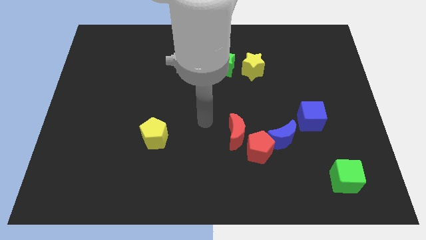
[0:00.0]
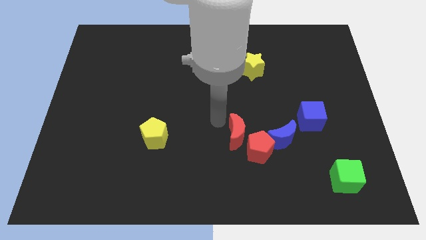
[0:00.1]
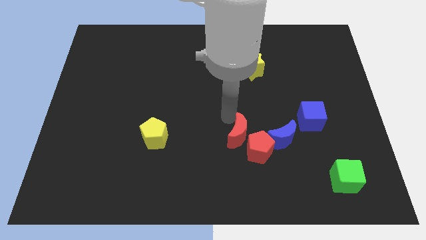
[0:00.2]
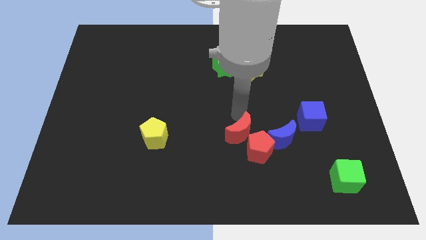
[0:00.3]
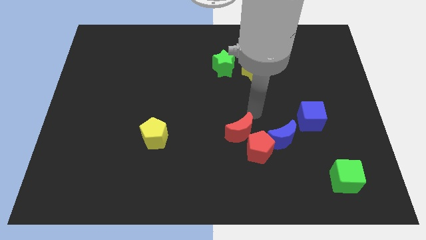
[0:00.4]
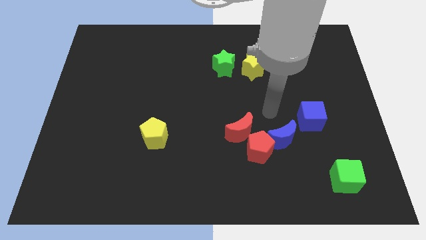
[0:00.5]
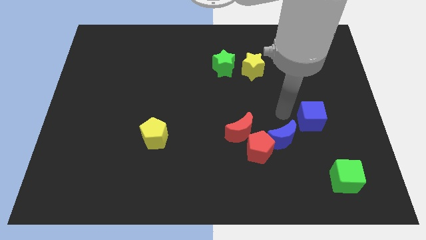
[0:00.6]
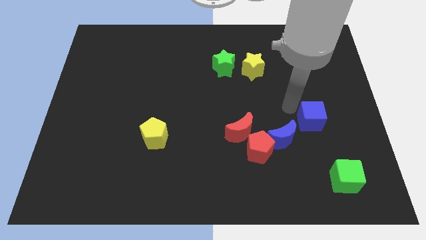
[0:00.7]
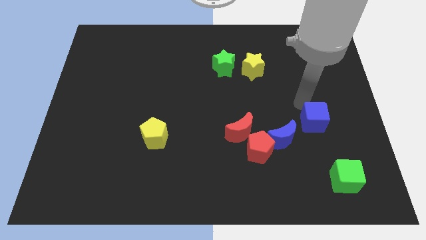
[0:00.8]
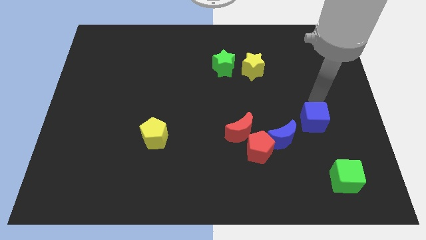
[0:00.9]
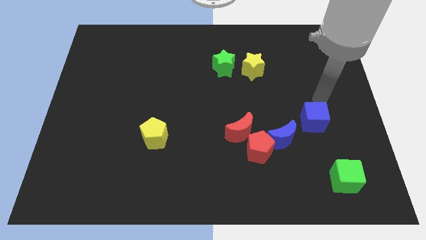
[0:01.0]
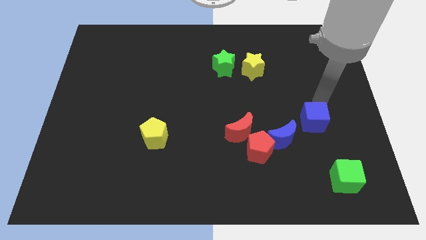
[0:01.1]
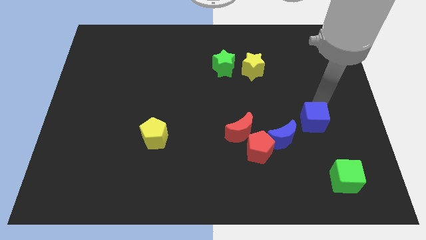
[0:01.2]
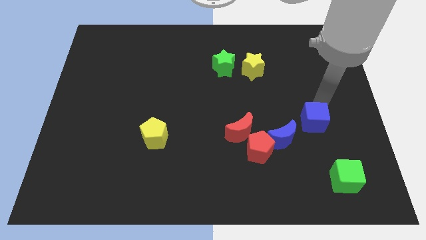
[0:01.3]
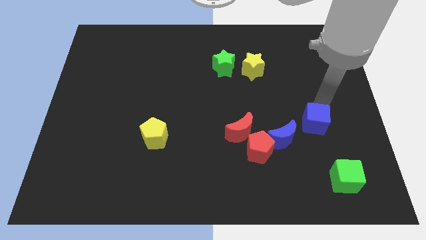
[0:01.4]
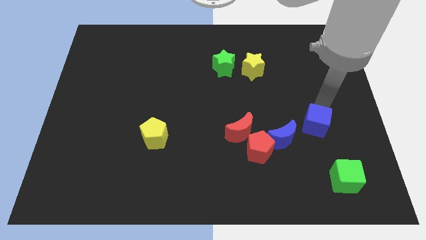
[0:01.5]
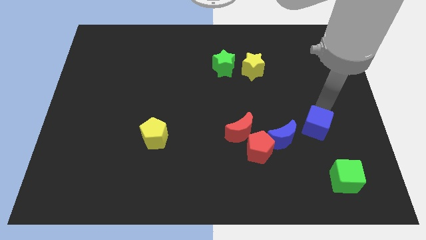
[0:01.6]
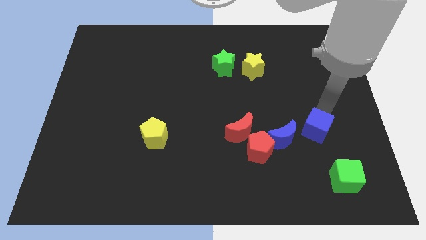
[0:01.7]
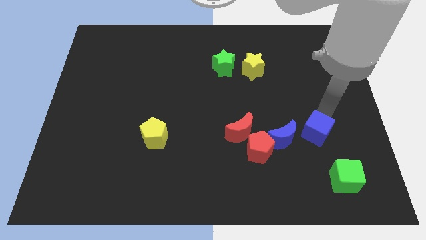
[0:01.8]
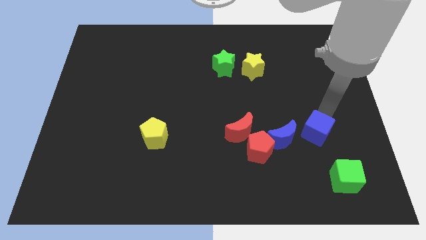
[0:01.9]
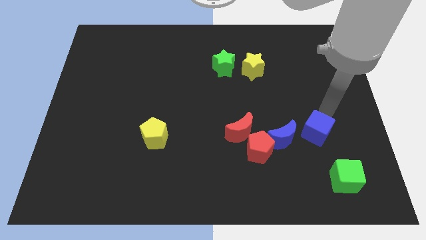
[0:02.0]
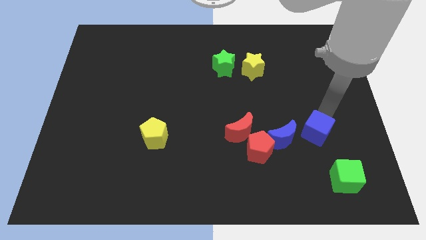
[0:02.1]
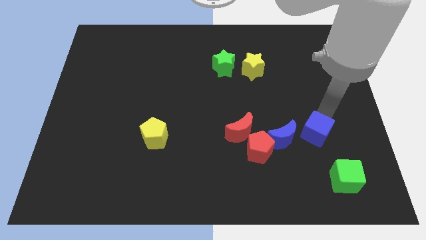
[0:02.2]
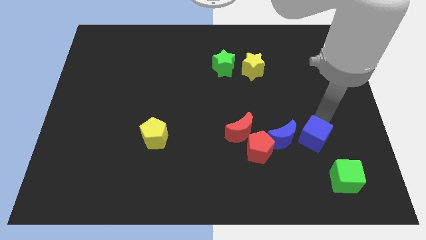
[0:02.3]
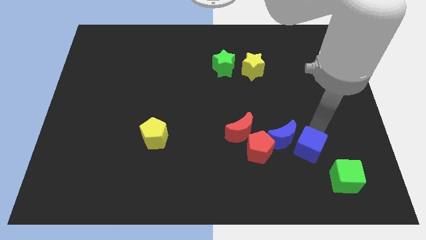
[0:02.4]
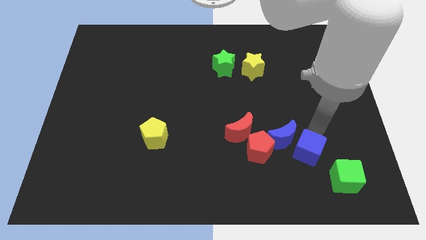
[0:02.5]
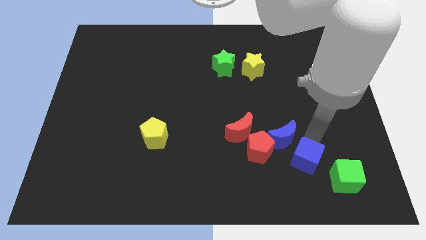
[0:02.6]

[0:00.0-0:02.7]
move the blue cube downwards and then to the left somewhat

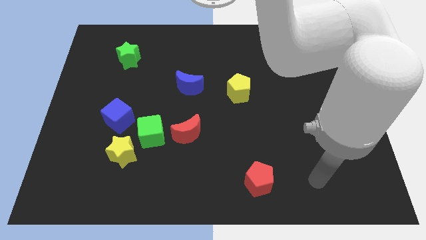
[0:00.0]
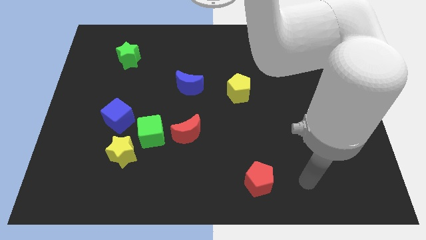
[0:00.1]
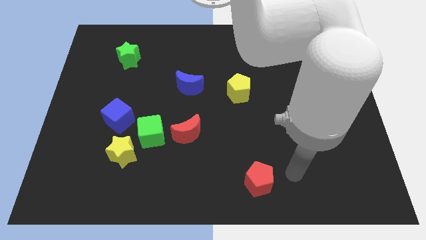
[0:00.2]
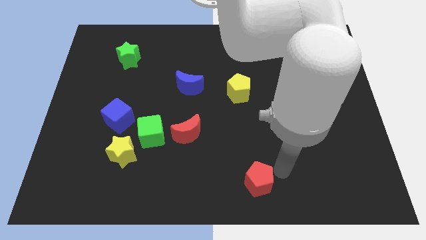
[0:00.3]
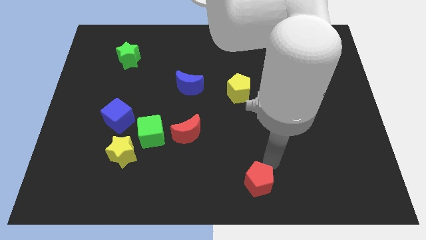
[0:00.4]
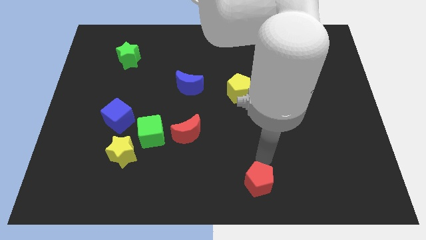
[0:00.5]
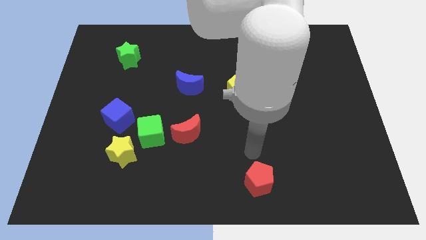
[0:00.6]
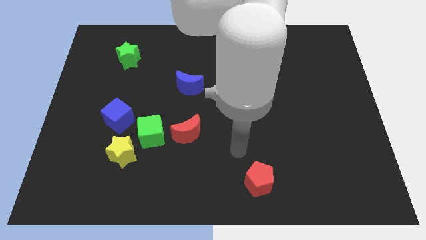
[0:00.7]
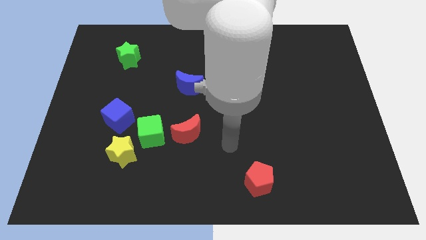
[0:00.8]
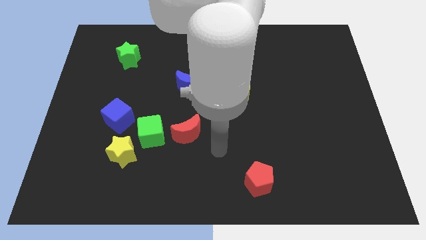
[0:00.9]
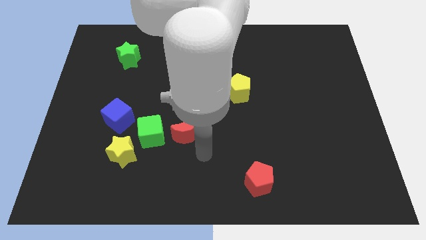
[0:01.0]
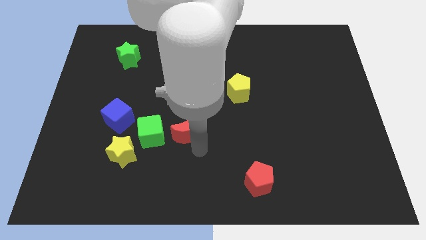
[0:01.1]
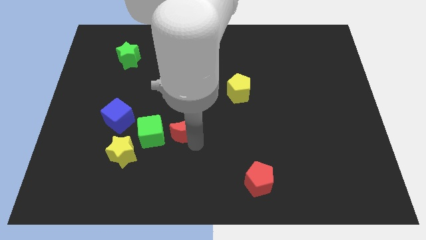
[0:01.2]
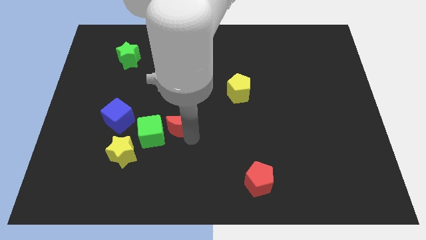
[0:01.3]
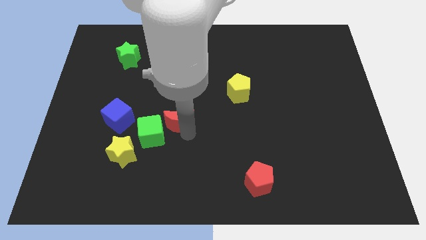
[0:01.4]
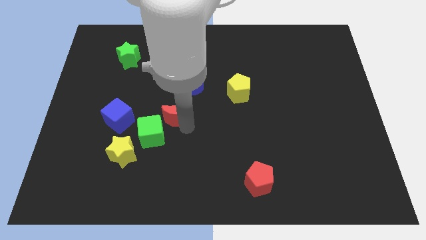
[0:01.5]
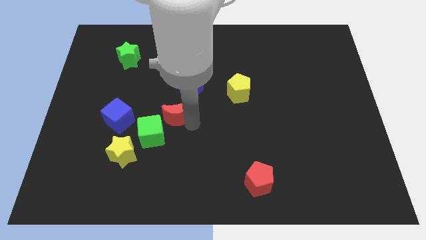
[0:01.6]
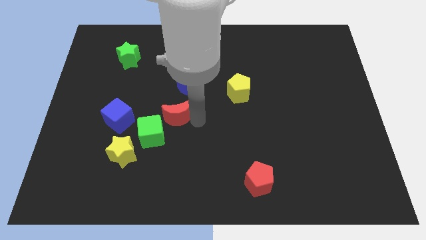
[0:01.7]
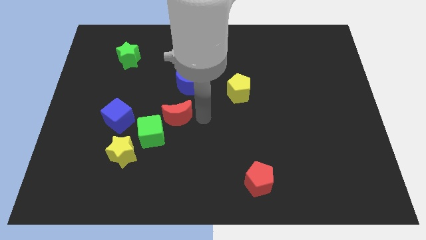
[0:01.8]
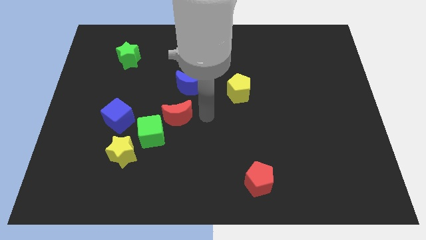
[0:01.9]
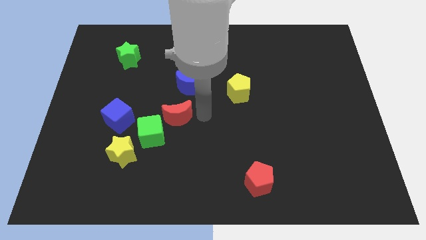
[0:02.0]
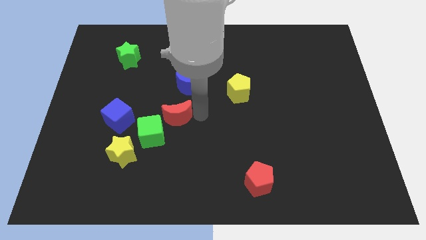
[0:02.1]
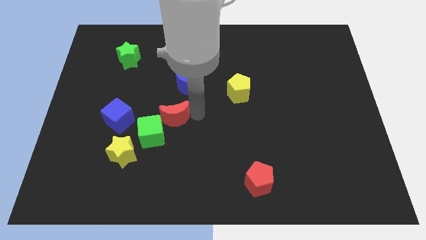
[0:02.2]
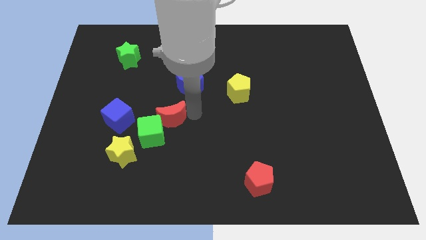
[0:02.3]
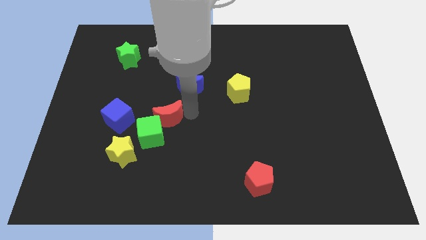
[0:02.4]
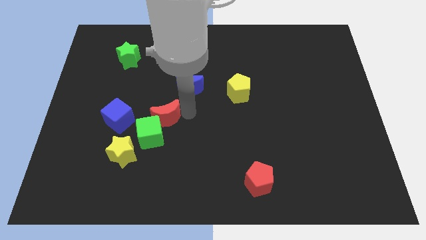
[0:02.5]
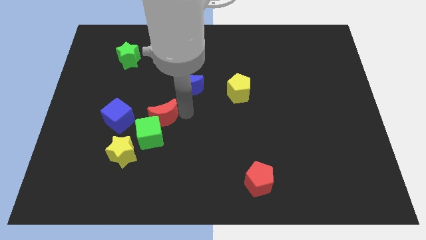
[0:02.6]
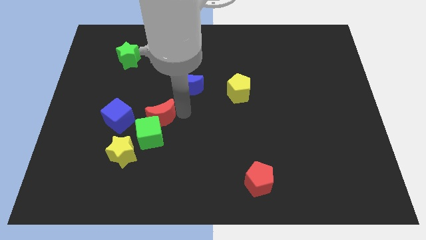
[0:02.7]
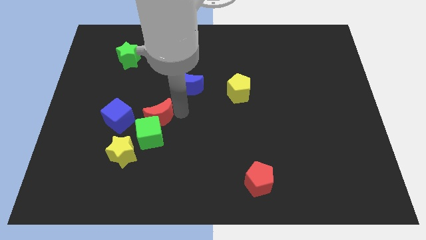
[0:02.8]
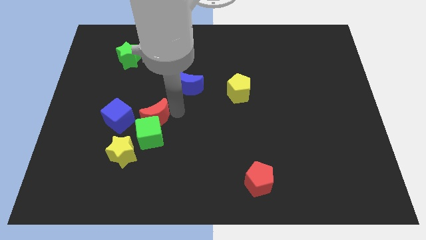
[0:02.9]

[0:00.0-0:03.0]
push the red moon left a bit

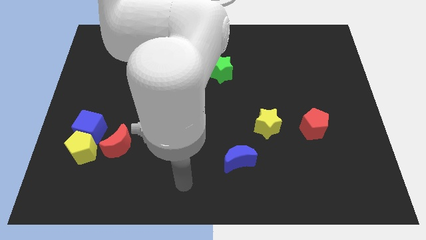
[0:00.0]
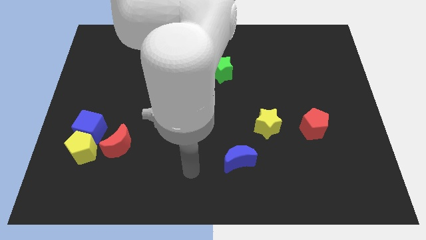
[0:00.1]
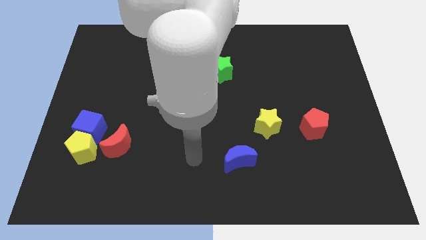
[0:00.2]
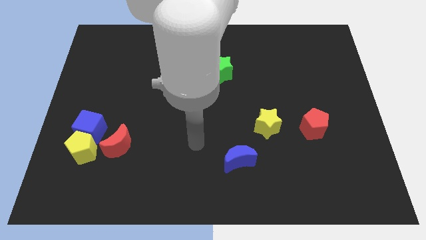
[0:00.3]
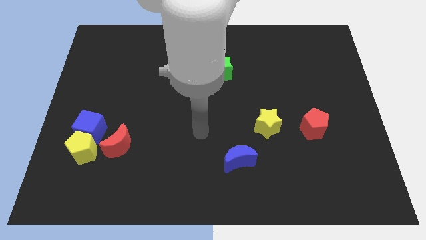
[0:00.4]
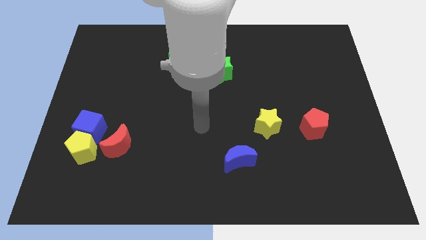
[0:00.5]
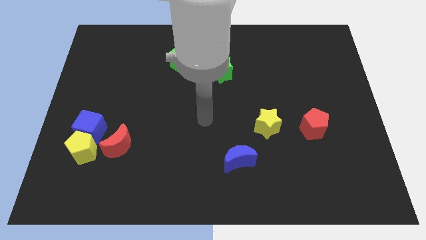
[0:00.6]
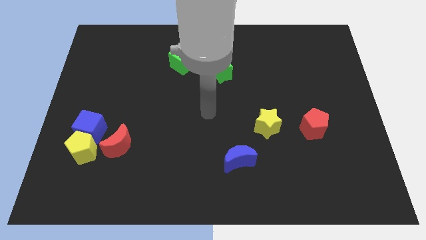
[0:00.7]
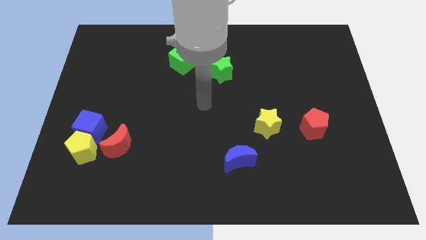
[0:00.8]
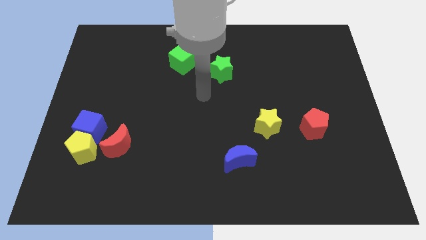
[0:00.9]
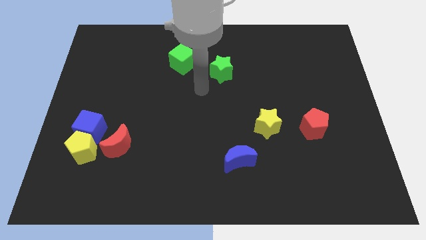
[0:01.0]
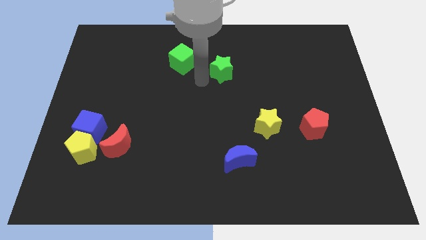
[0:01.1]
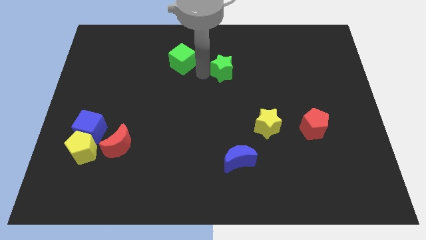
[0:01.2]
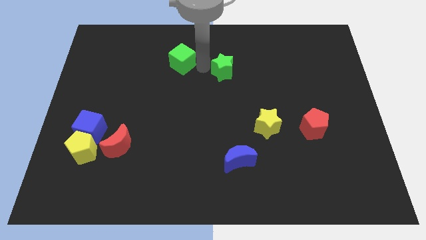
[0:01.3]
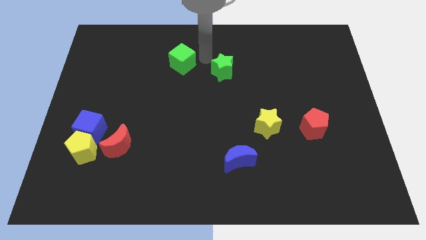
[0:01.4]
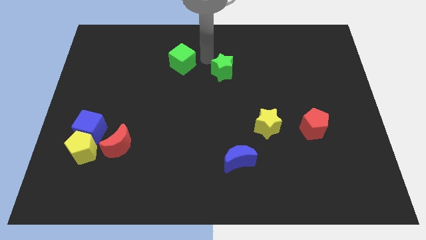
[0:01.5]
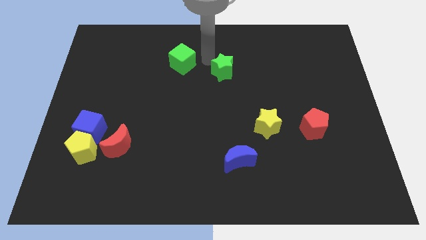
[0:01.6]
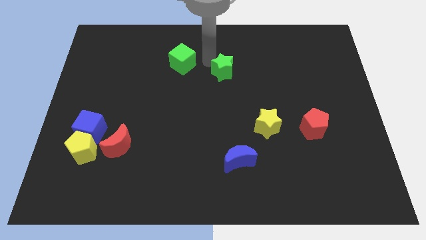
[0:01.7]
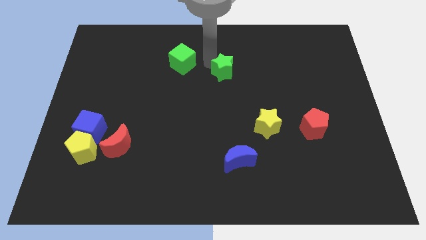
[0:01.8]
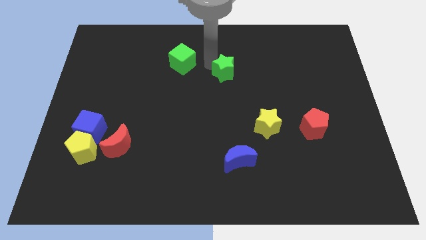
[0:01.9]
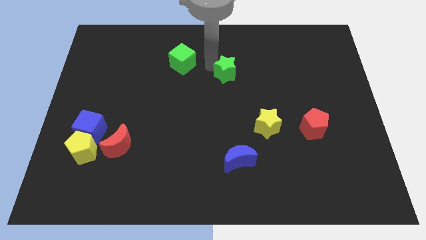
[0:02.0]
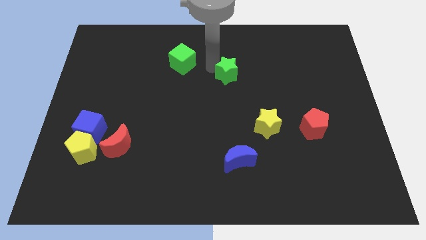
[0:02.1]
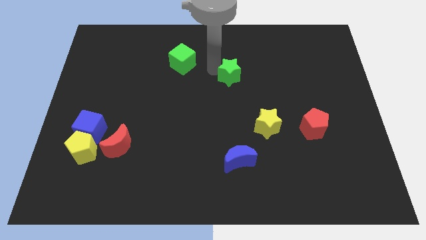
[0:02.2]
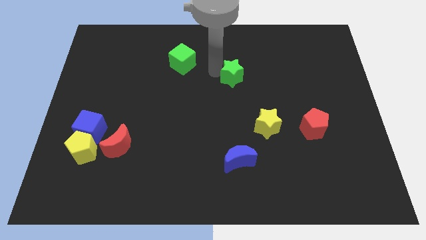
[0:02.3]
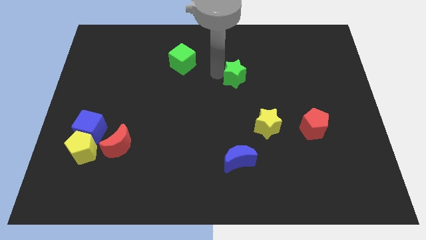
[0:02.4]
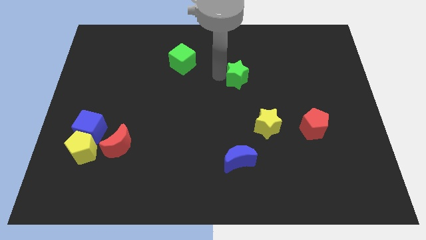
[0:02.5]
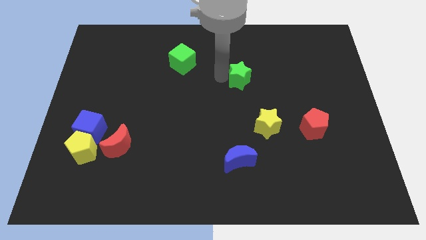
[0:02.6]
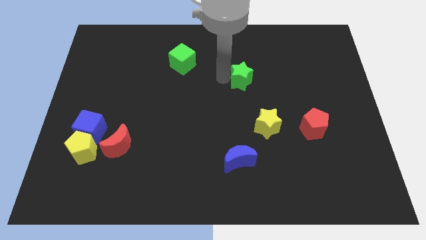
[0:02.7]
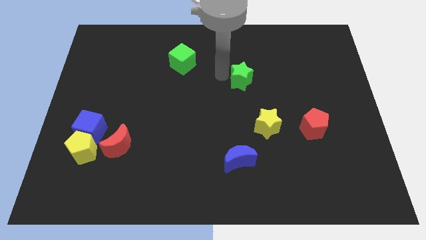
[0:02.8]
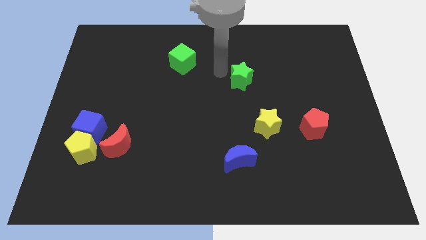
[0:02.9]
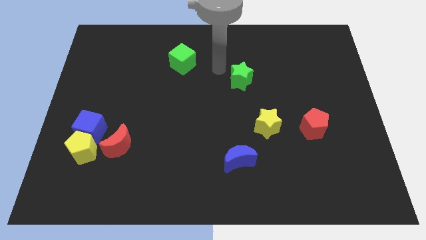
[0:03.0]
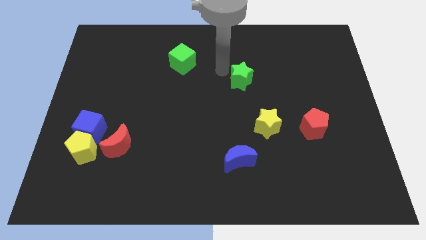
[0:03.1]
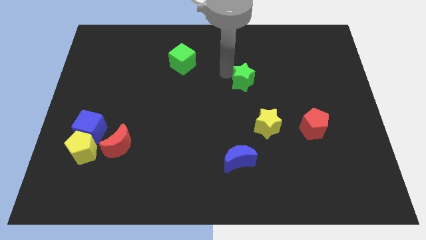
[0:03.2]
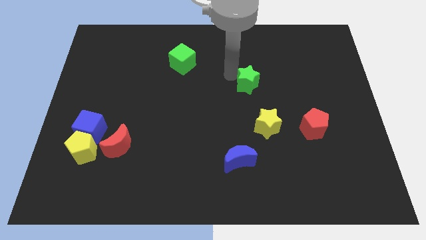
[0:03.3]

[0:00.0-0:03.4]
slide the green star a bit downwards and to the right diagonally
